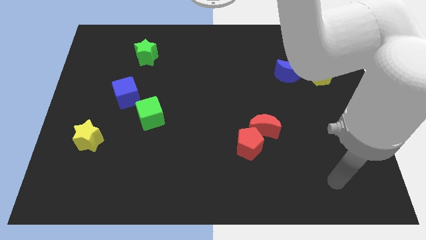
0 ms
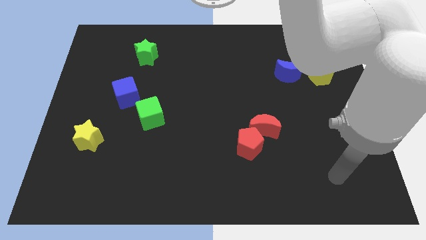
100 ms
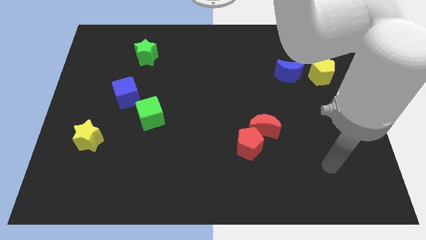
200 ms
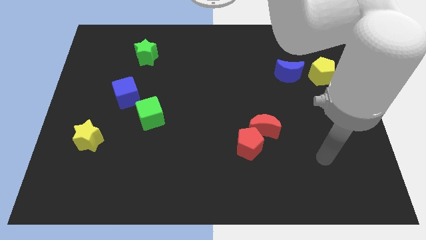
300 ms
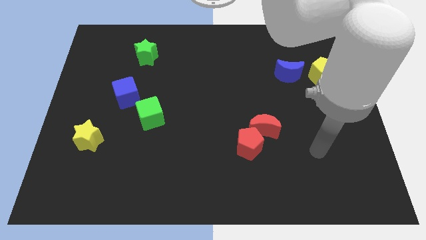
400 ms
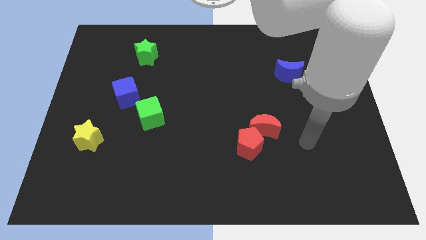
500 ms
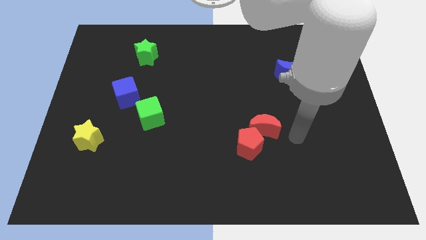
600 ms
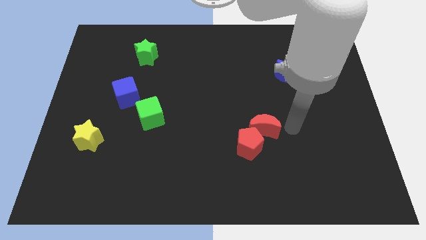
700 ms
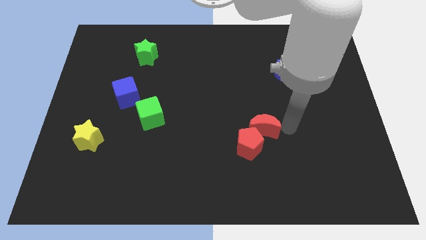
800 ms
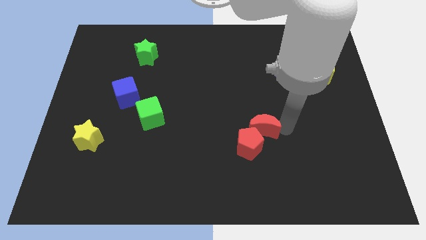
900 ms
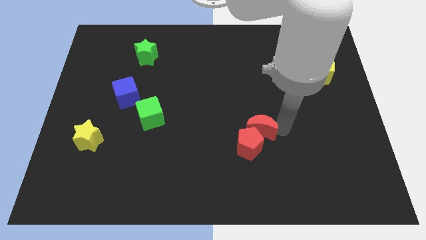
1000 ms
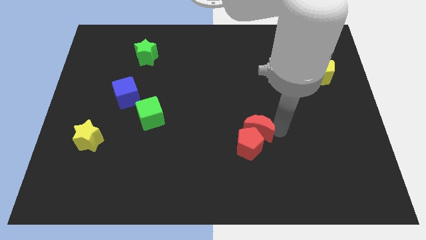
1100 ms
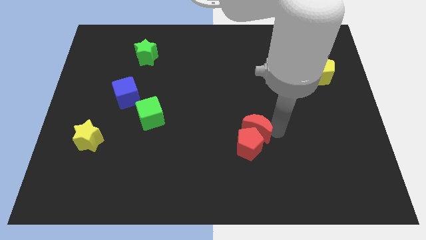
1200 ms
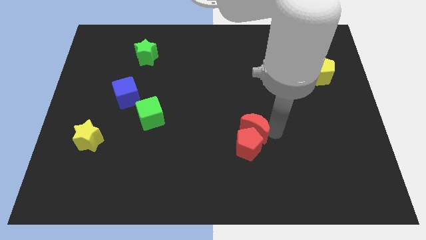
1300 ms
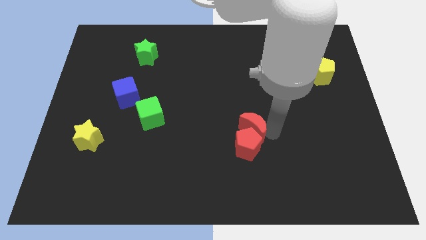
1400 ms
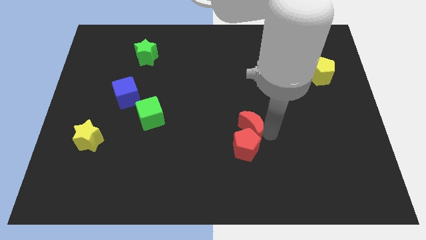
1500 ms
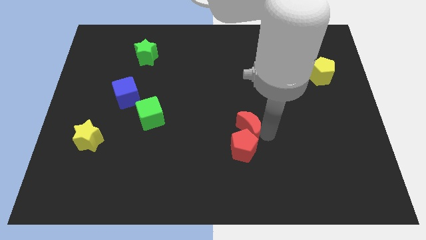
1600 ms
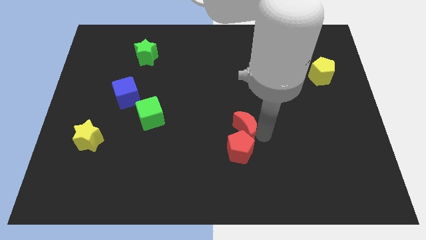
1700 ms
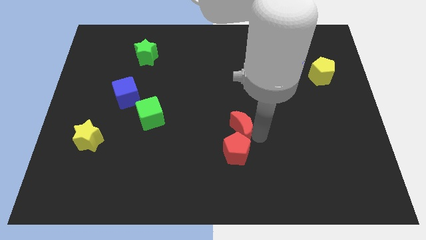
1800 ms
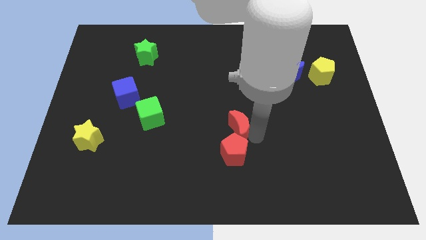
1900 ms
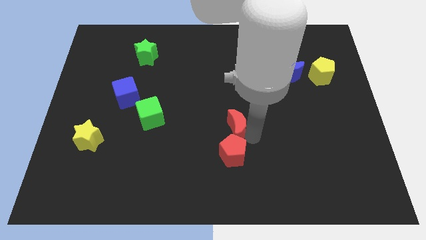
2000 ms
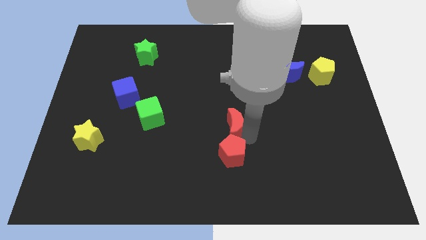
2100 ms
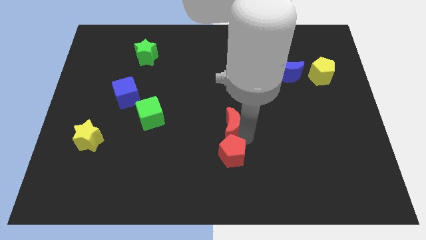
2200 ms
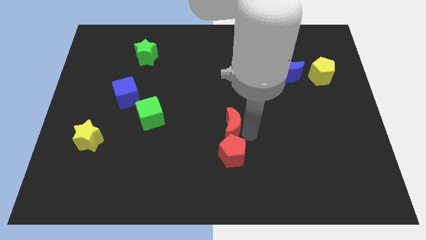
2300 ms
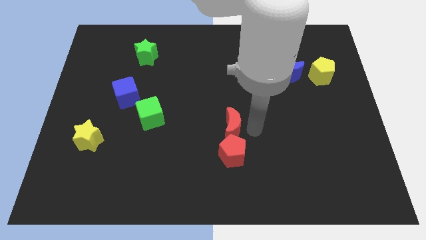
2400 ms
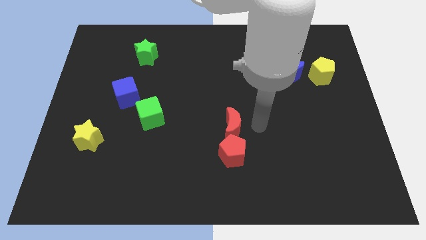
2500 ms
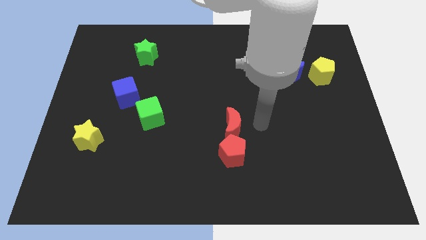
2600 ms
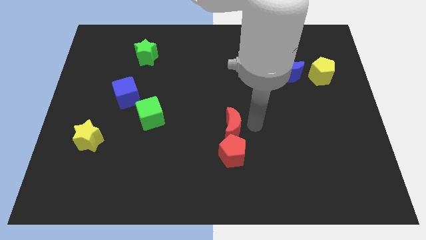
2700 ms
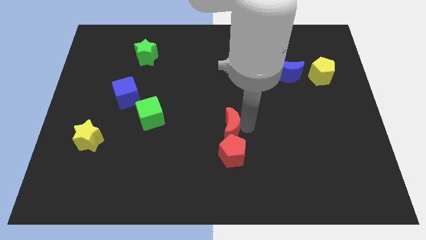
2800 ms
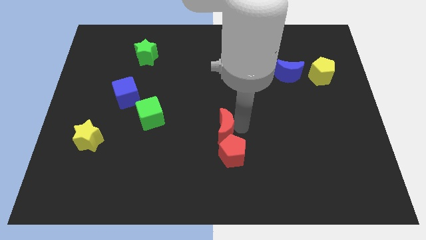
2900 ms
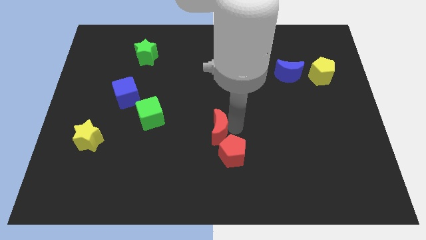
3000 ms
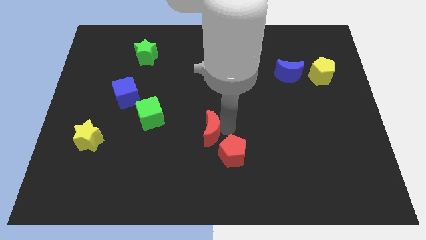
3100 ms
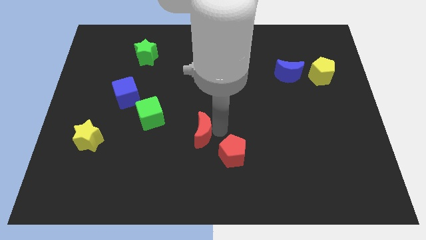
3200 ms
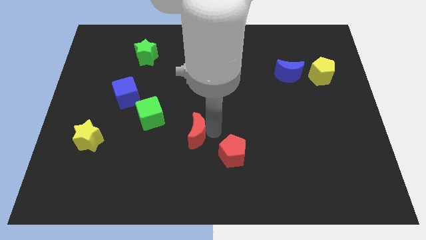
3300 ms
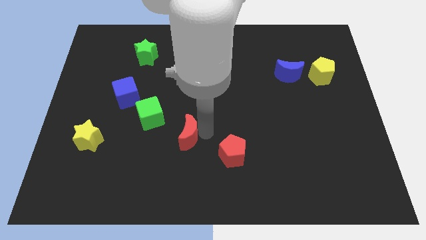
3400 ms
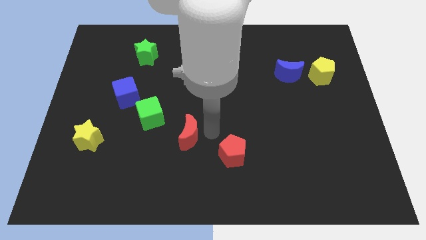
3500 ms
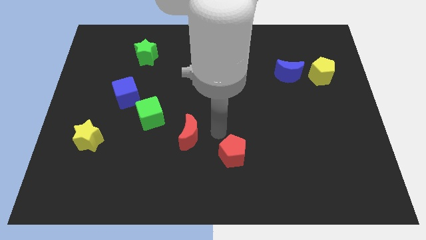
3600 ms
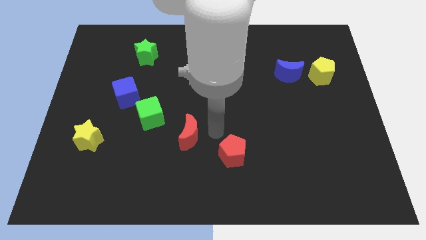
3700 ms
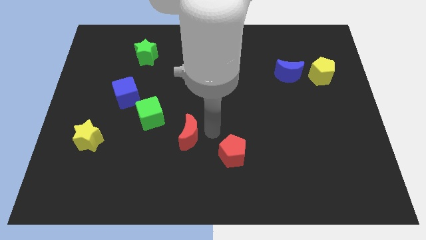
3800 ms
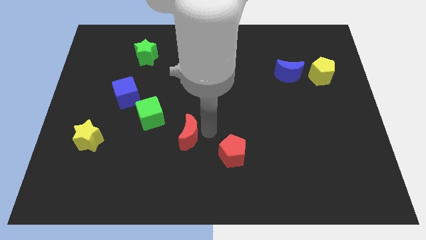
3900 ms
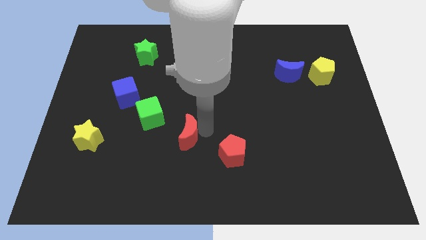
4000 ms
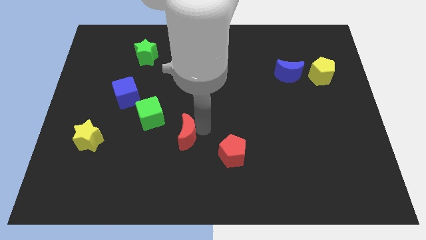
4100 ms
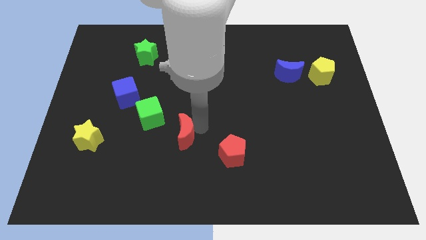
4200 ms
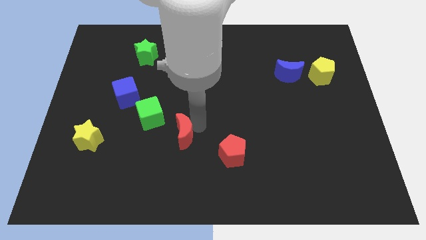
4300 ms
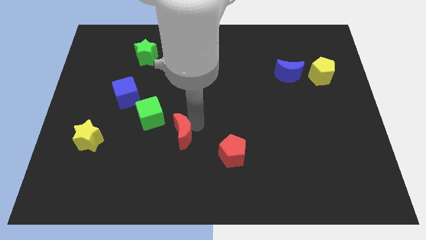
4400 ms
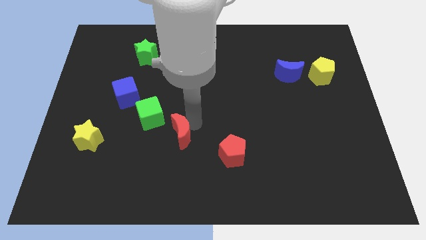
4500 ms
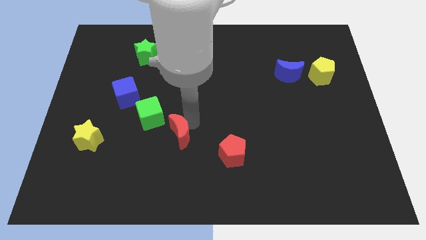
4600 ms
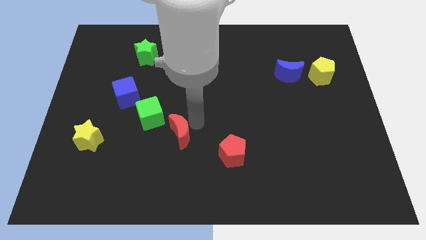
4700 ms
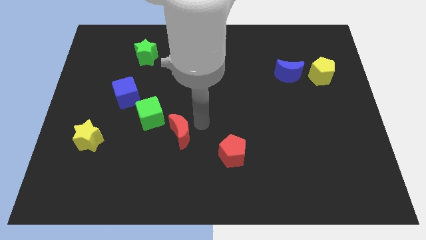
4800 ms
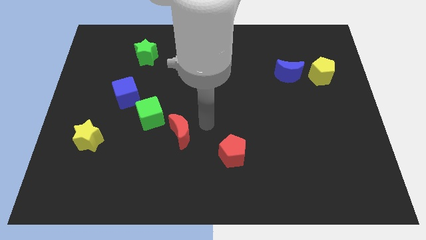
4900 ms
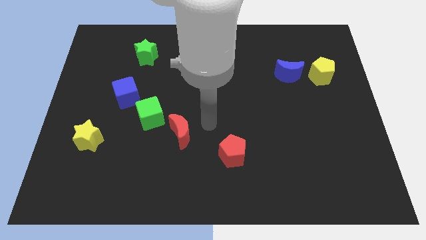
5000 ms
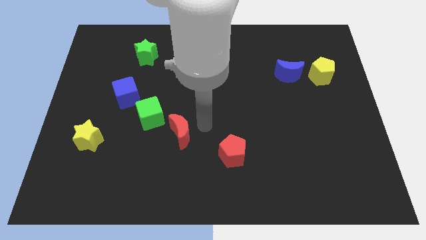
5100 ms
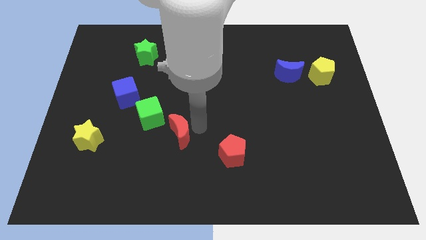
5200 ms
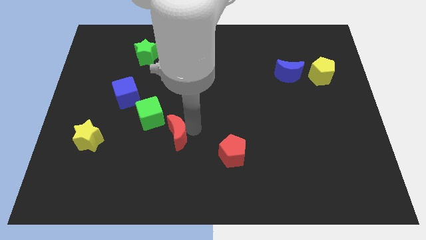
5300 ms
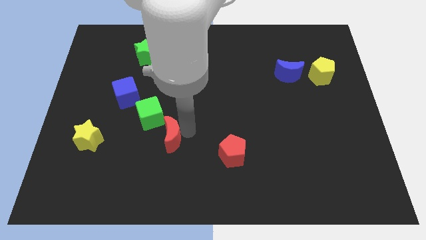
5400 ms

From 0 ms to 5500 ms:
push the red moon to the left

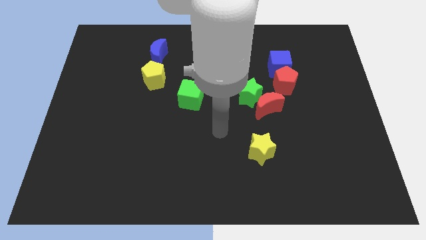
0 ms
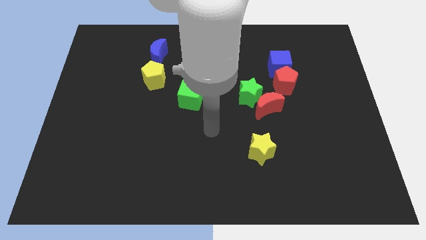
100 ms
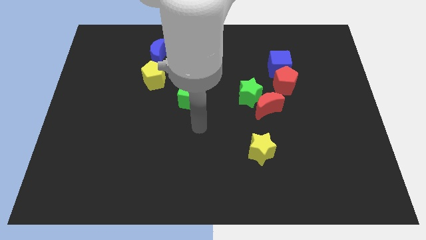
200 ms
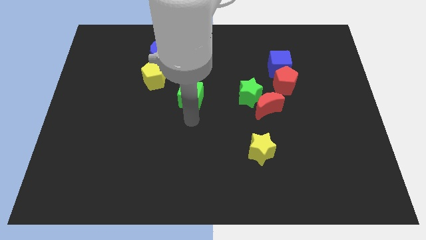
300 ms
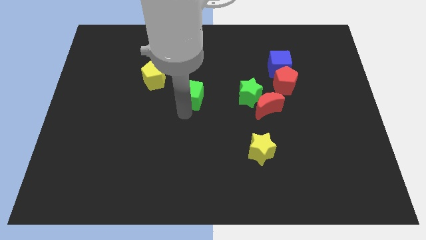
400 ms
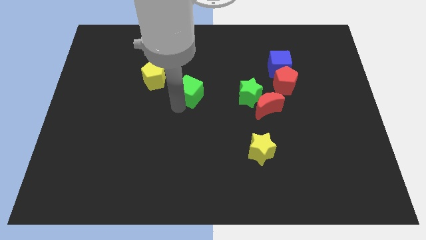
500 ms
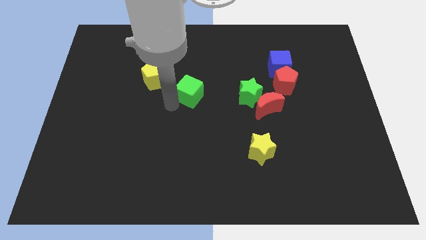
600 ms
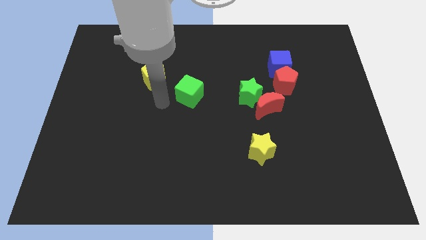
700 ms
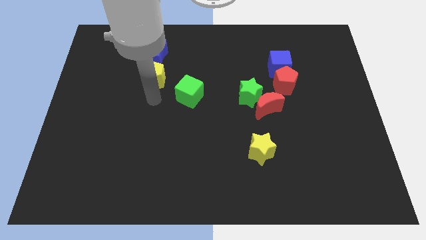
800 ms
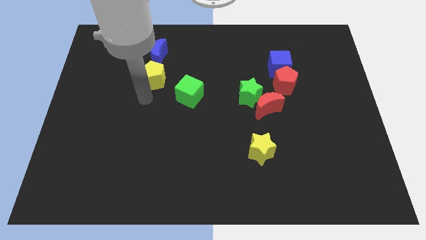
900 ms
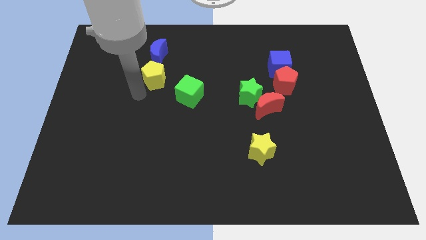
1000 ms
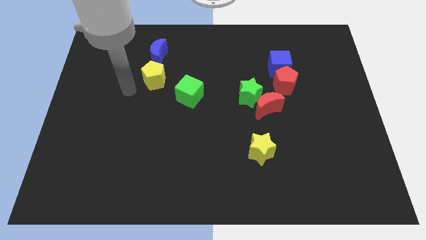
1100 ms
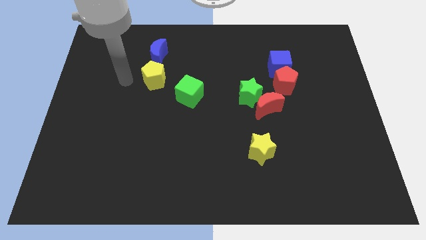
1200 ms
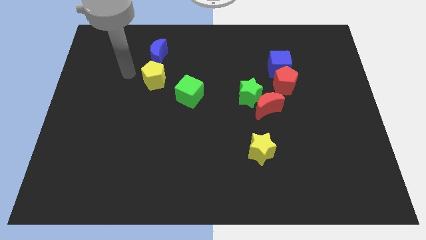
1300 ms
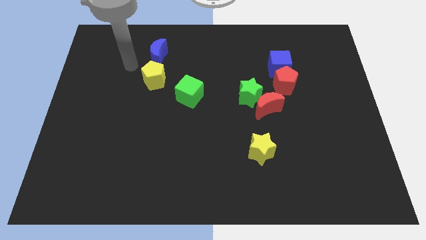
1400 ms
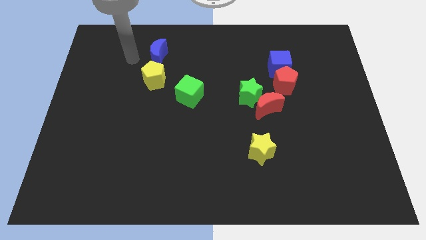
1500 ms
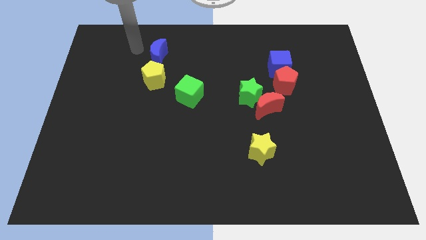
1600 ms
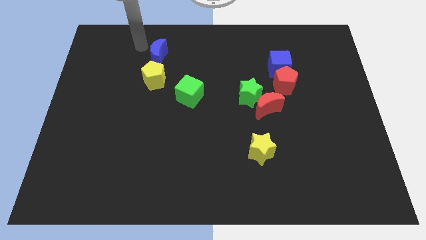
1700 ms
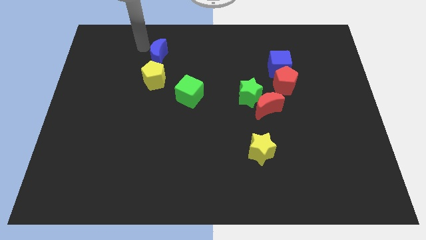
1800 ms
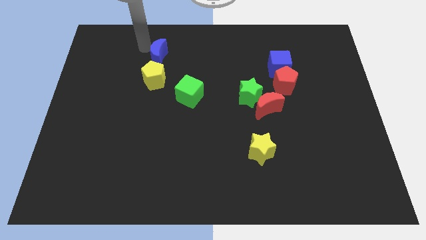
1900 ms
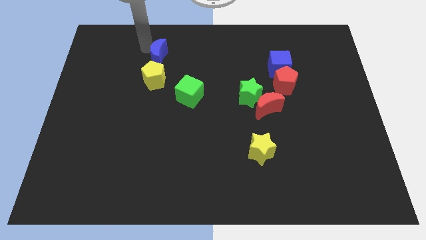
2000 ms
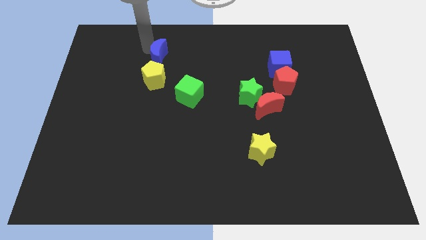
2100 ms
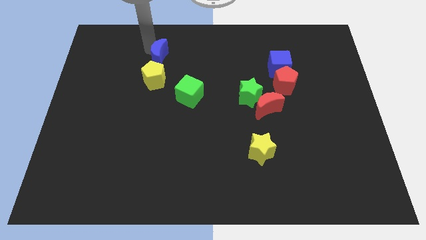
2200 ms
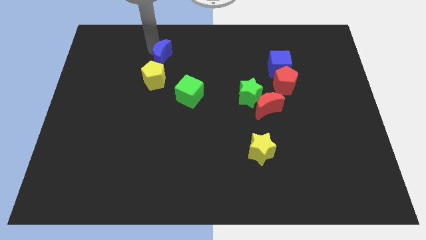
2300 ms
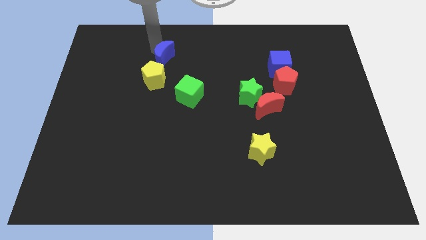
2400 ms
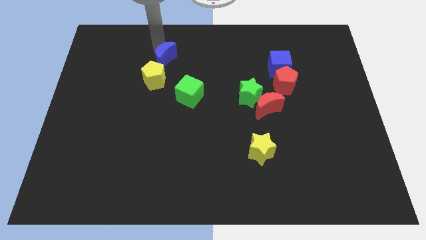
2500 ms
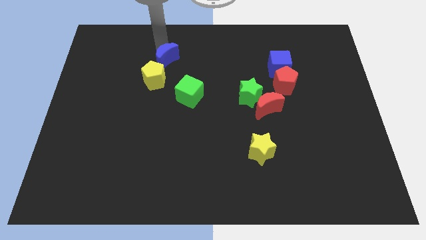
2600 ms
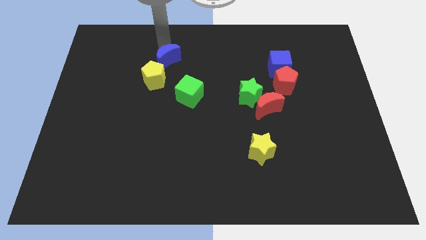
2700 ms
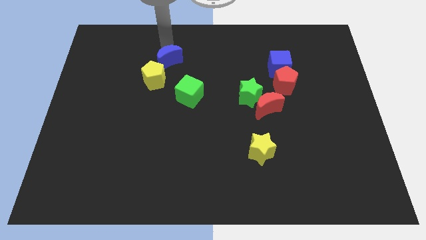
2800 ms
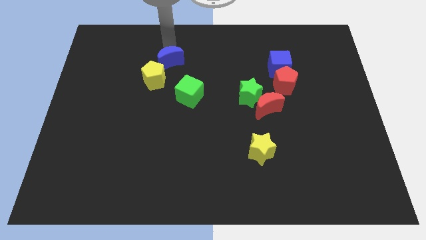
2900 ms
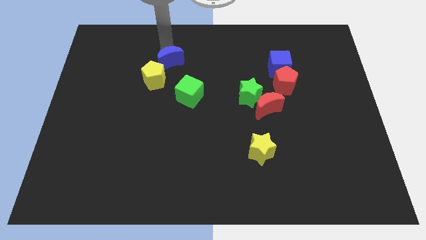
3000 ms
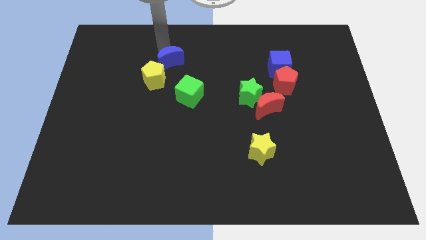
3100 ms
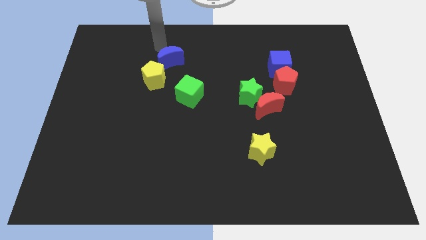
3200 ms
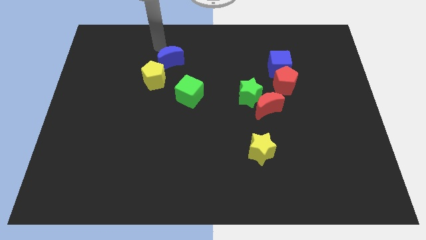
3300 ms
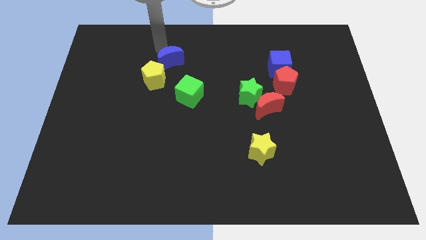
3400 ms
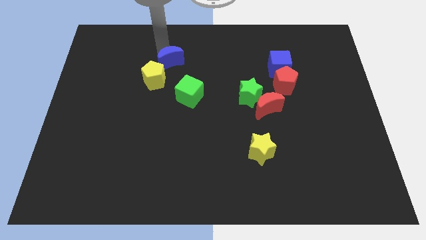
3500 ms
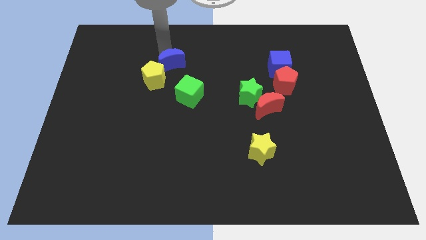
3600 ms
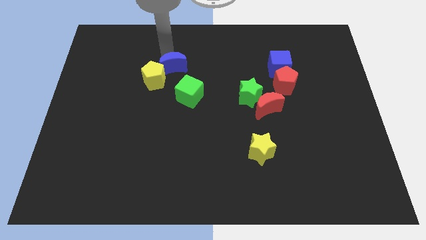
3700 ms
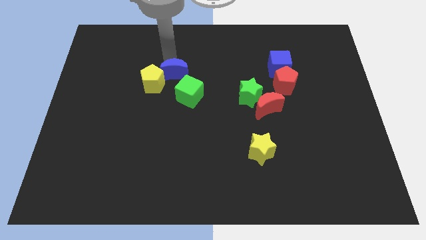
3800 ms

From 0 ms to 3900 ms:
slightly slide the blue moon down and to the right
